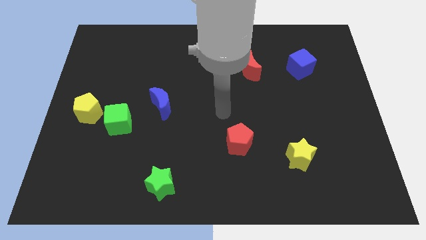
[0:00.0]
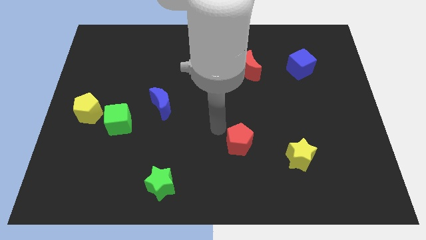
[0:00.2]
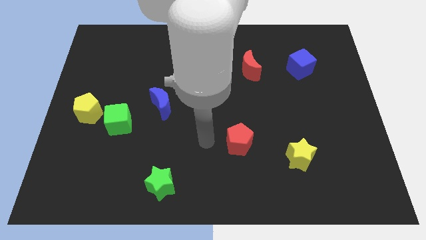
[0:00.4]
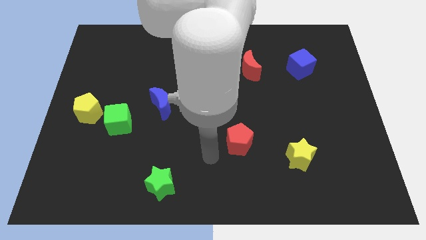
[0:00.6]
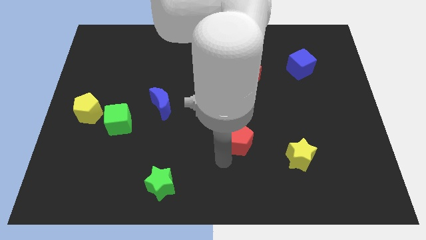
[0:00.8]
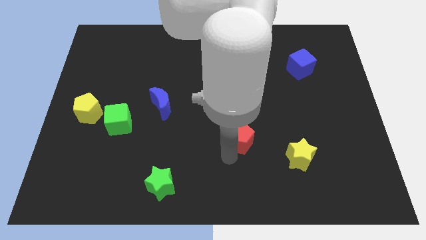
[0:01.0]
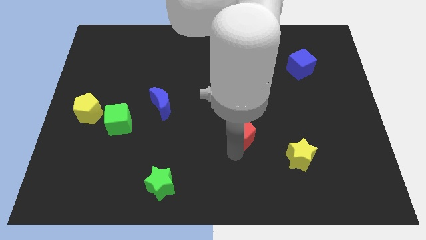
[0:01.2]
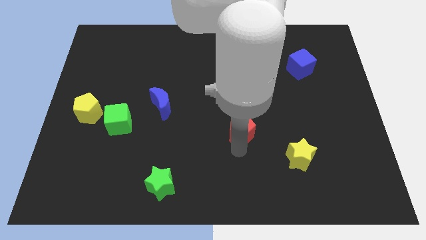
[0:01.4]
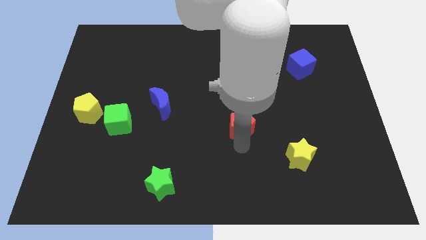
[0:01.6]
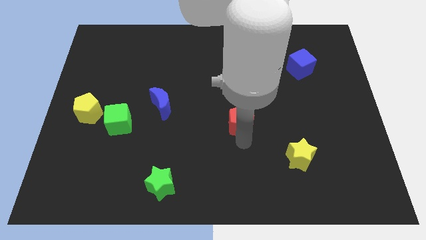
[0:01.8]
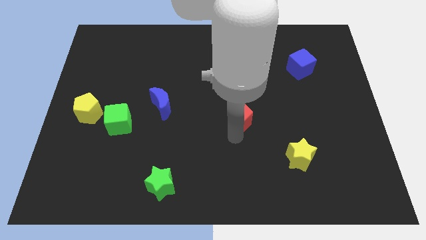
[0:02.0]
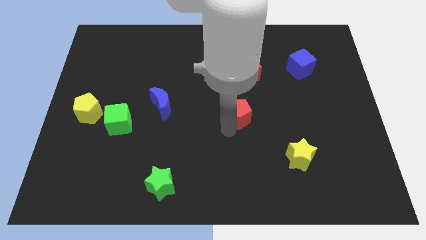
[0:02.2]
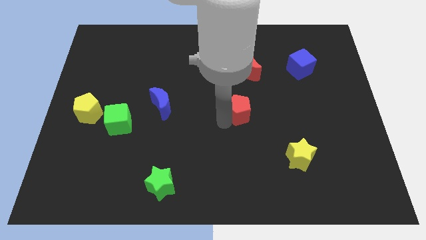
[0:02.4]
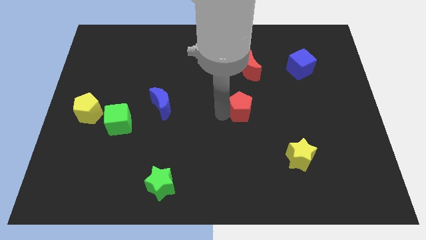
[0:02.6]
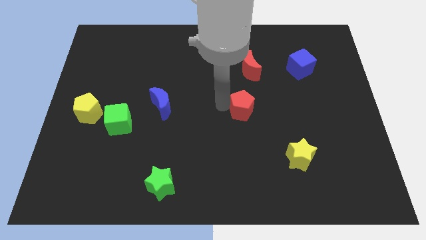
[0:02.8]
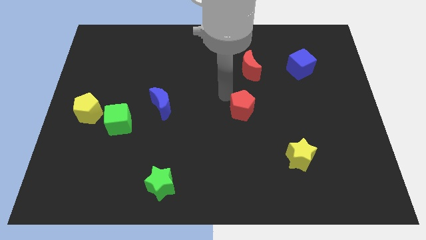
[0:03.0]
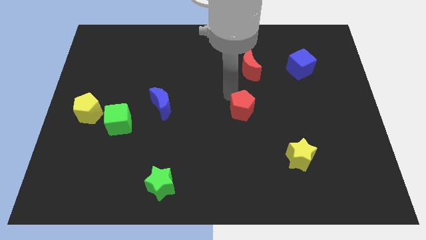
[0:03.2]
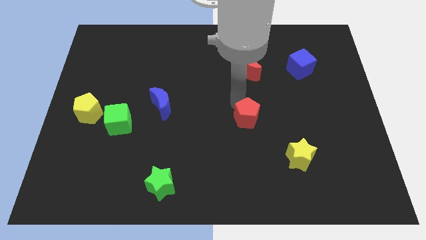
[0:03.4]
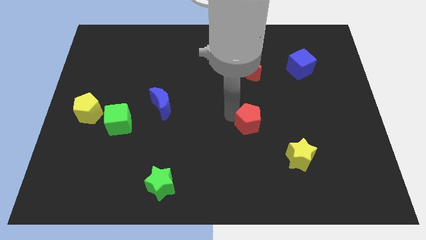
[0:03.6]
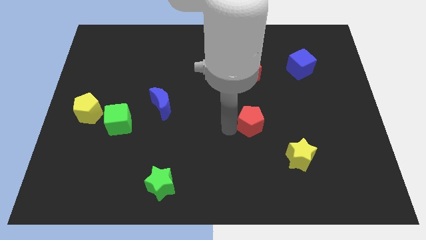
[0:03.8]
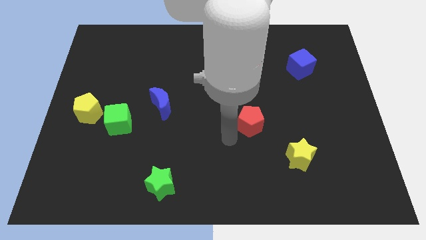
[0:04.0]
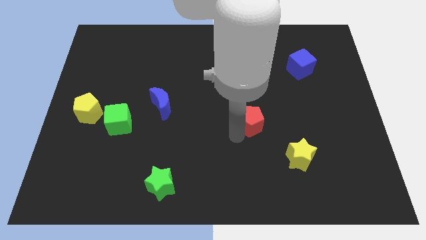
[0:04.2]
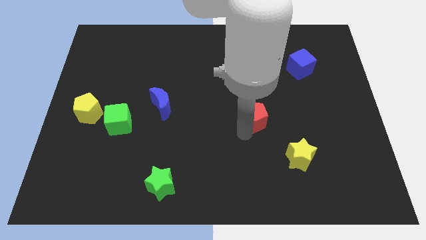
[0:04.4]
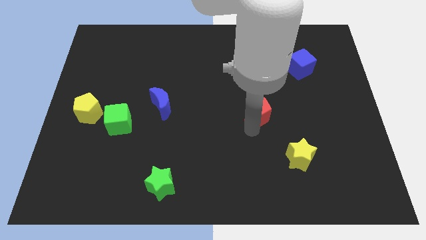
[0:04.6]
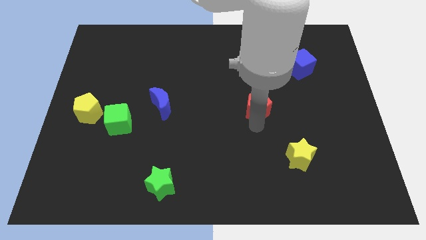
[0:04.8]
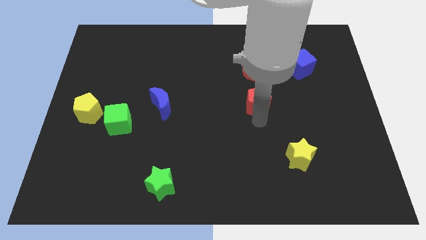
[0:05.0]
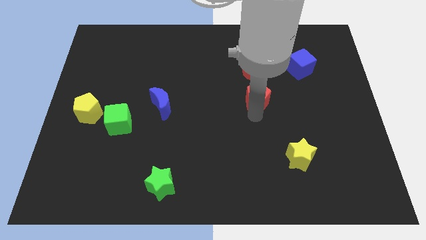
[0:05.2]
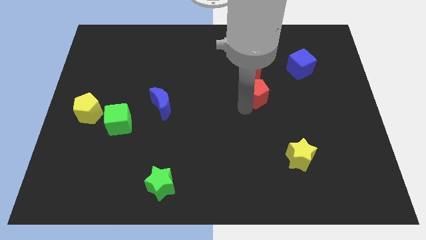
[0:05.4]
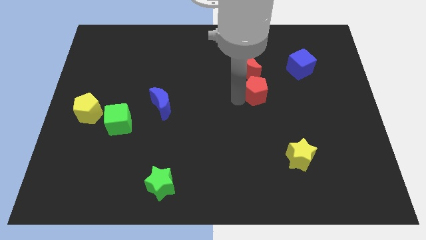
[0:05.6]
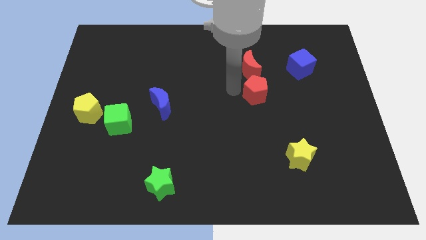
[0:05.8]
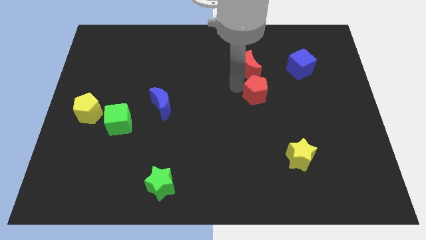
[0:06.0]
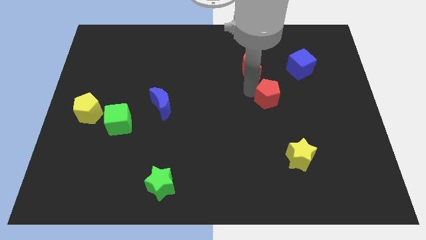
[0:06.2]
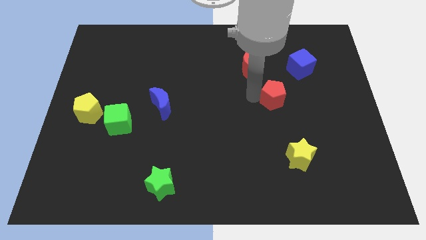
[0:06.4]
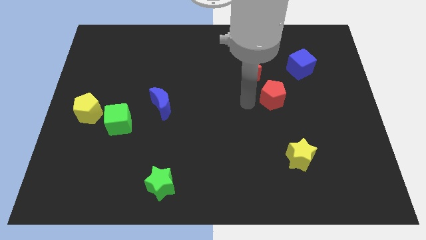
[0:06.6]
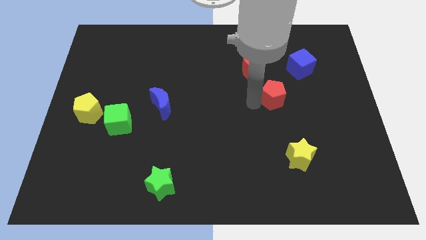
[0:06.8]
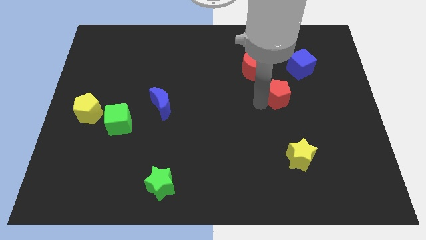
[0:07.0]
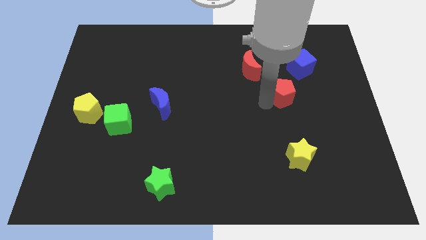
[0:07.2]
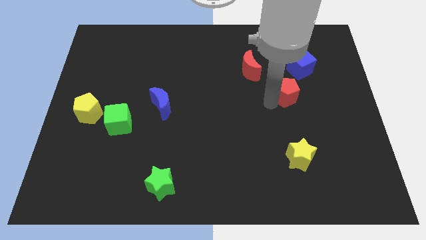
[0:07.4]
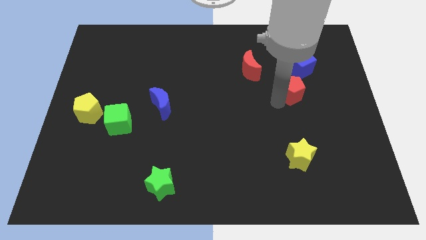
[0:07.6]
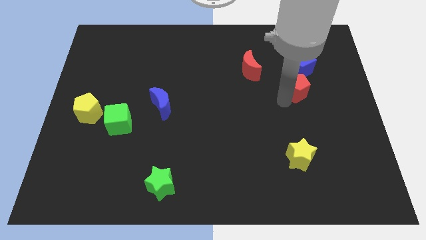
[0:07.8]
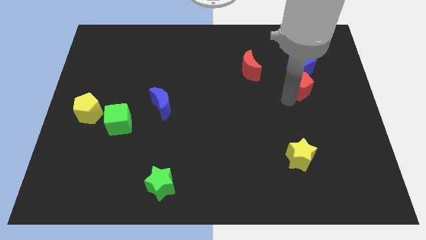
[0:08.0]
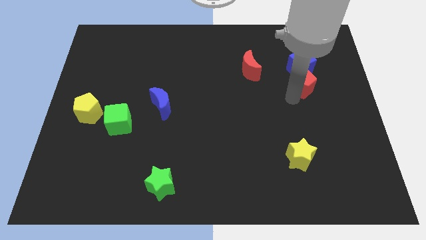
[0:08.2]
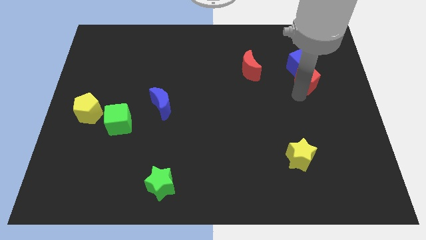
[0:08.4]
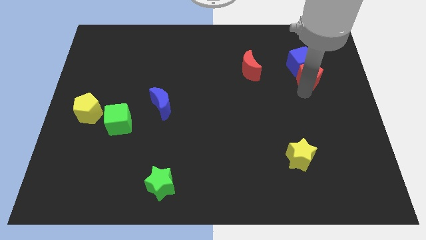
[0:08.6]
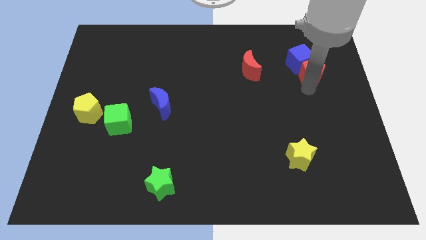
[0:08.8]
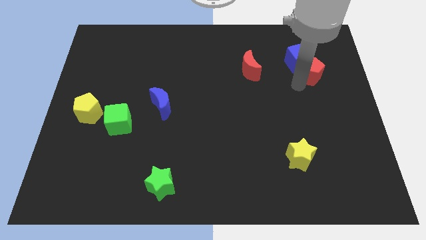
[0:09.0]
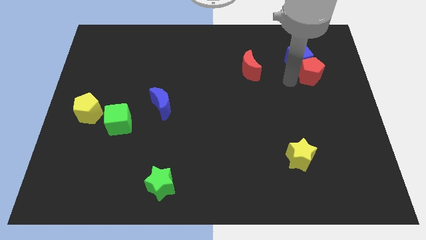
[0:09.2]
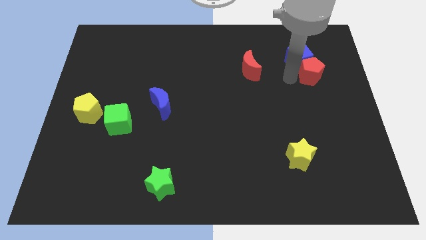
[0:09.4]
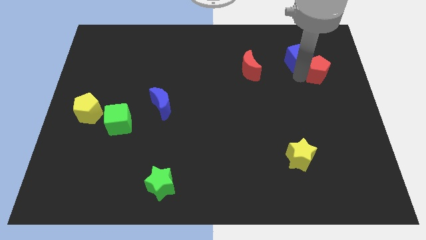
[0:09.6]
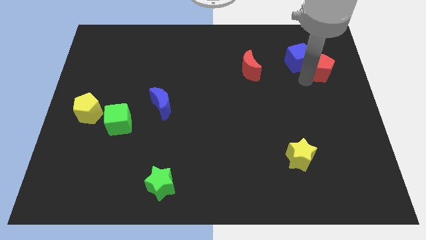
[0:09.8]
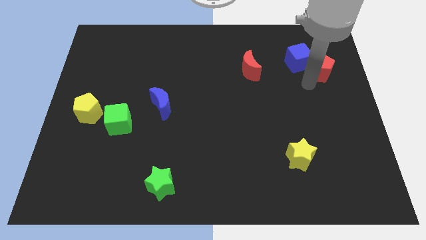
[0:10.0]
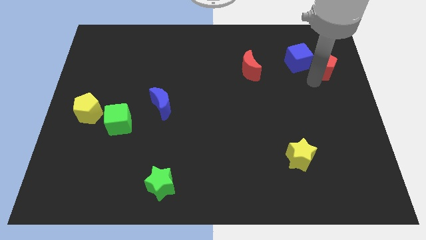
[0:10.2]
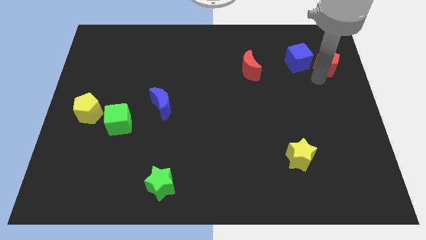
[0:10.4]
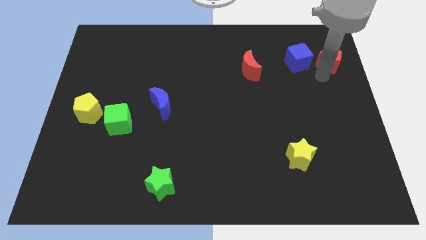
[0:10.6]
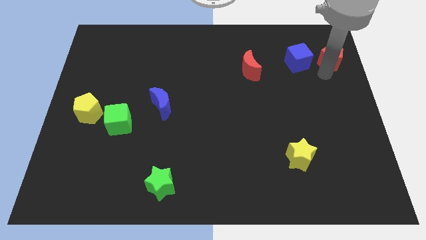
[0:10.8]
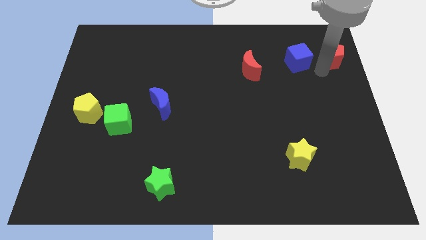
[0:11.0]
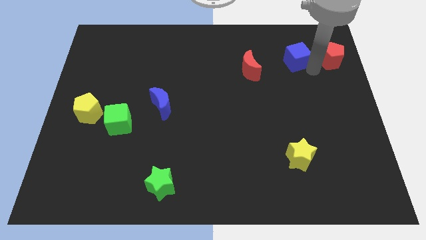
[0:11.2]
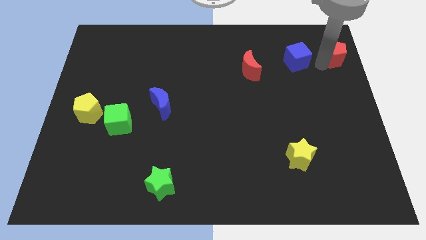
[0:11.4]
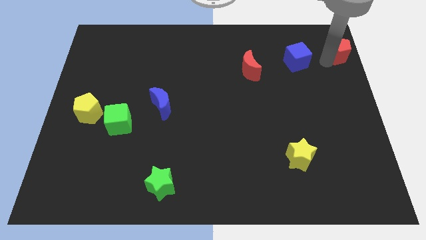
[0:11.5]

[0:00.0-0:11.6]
slide the red pentagon to the top right corner

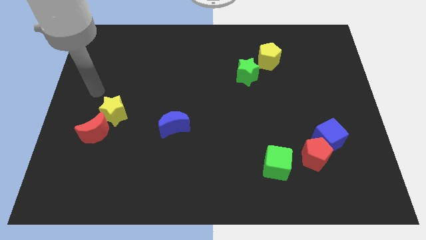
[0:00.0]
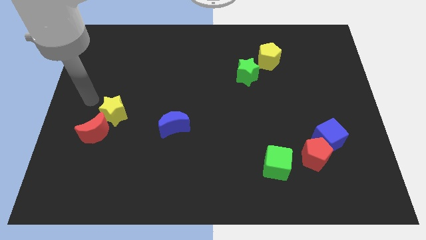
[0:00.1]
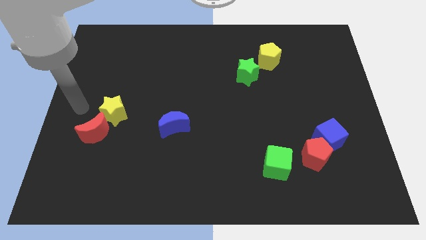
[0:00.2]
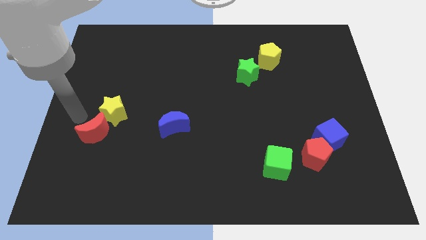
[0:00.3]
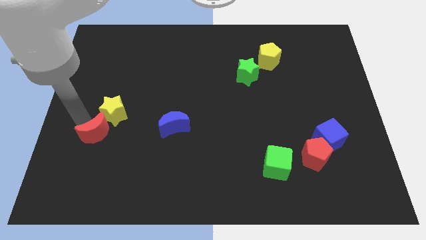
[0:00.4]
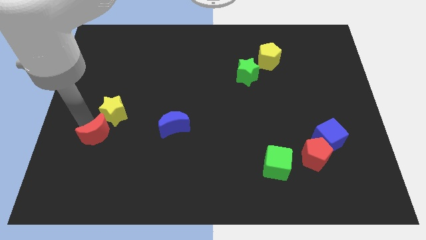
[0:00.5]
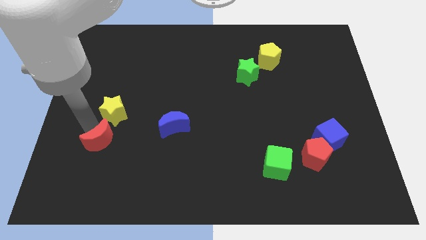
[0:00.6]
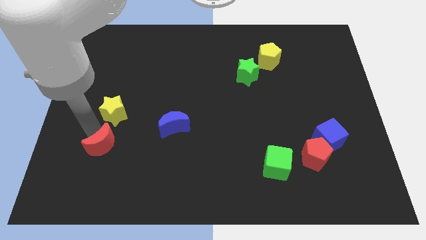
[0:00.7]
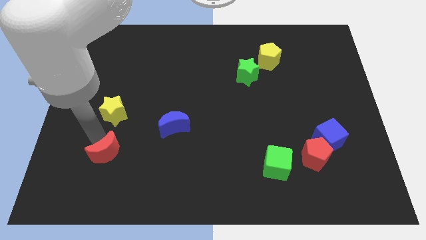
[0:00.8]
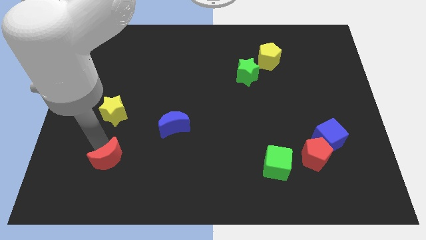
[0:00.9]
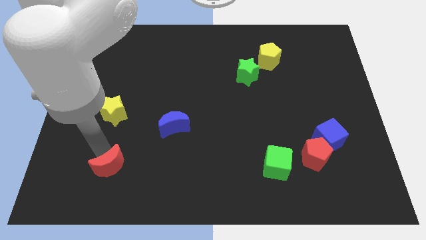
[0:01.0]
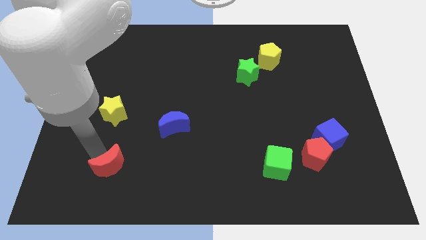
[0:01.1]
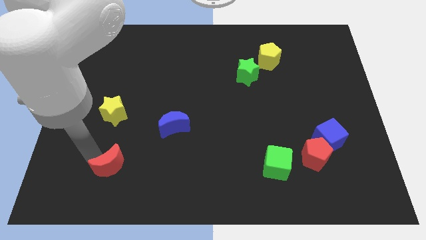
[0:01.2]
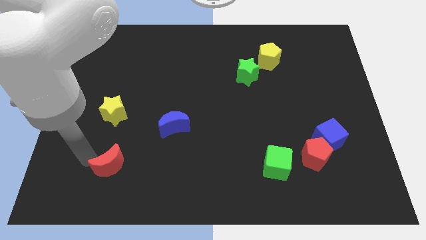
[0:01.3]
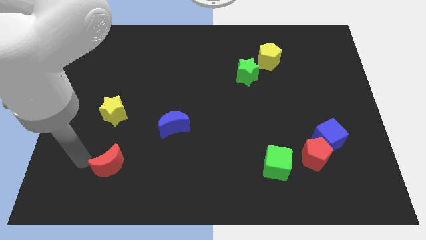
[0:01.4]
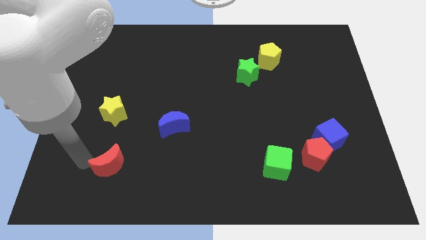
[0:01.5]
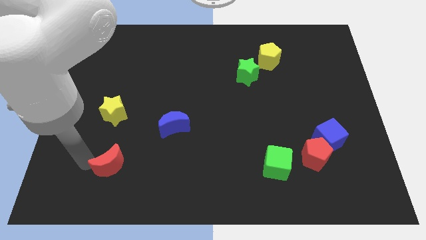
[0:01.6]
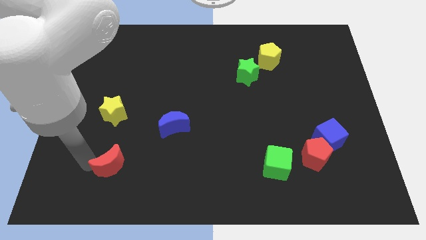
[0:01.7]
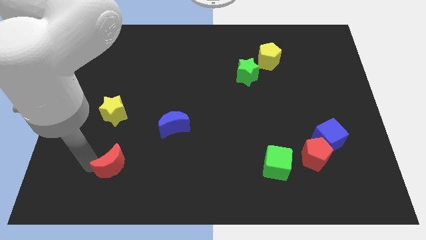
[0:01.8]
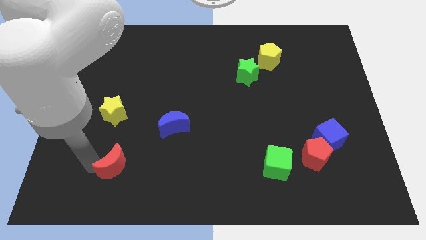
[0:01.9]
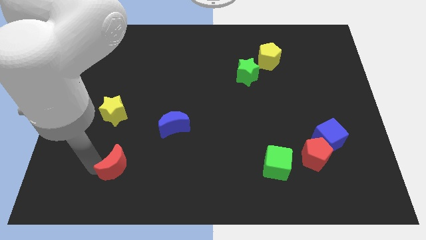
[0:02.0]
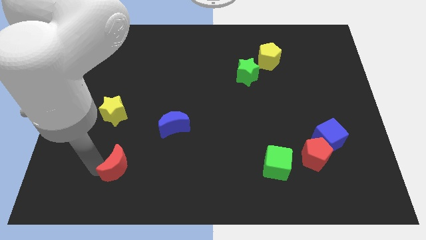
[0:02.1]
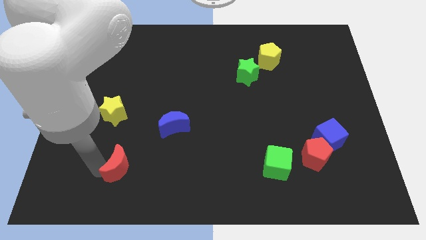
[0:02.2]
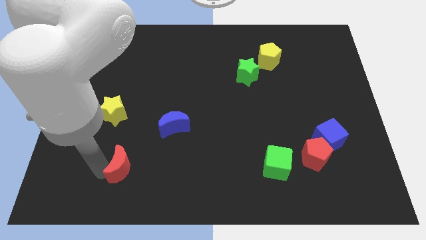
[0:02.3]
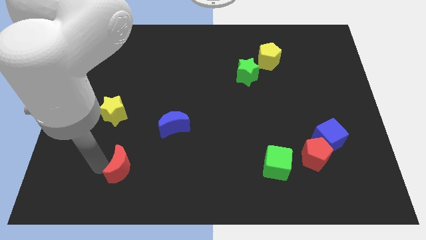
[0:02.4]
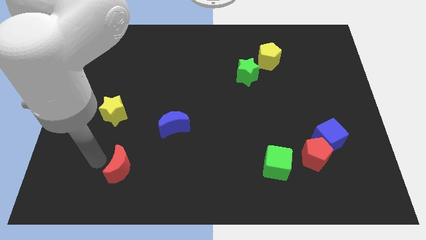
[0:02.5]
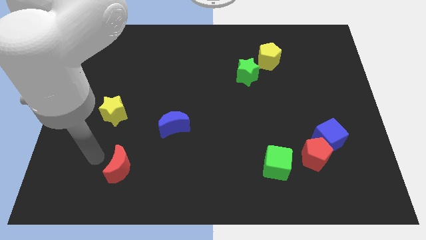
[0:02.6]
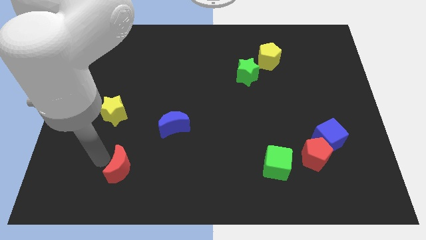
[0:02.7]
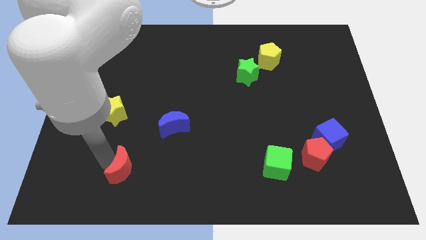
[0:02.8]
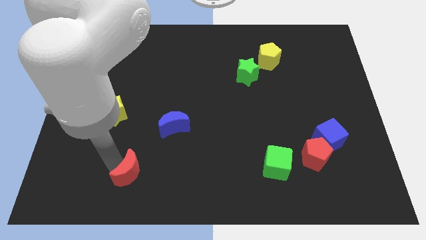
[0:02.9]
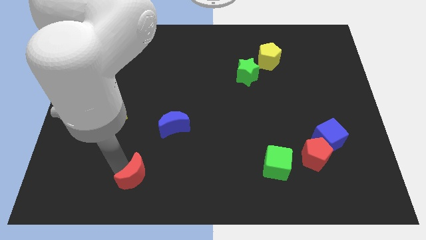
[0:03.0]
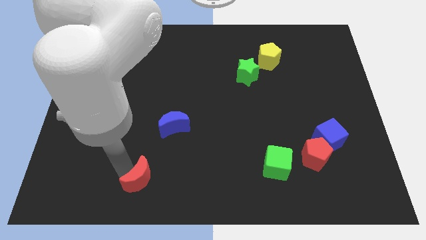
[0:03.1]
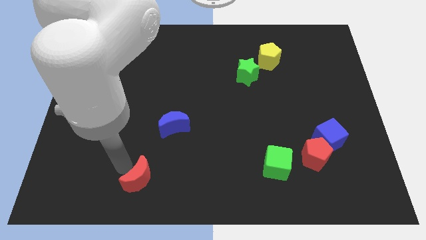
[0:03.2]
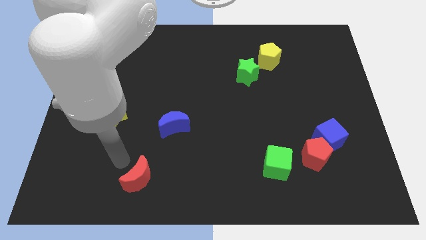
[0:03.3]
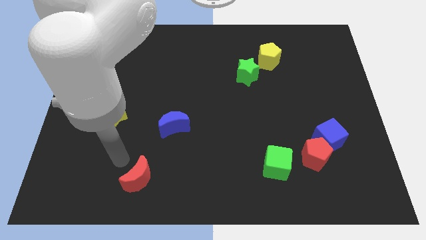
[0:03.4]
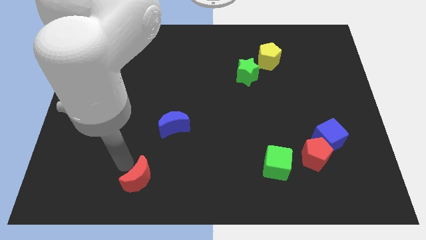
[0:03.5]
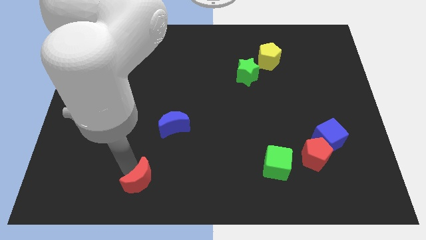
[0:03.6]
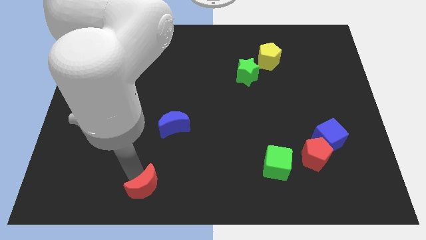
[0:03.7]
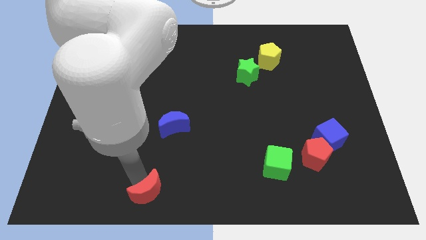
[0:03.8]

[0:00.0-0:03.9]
slide the red moon to the bottom side
